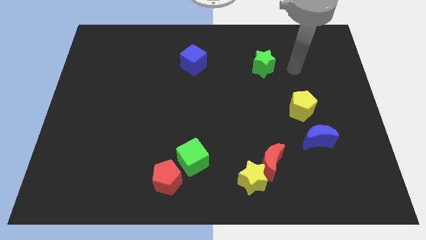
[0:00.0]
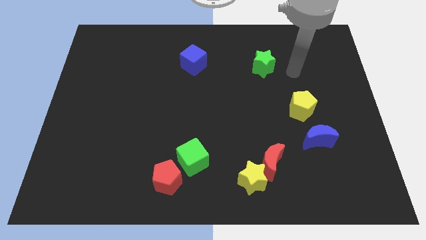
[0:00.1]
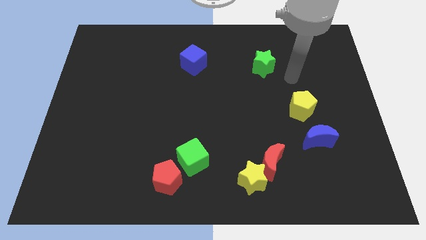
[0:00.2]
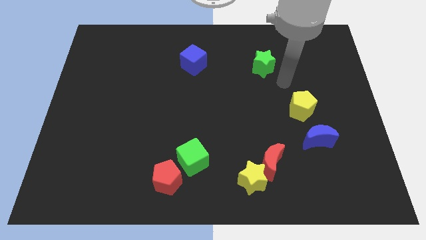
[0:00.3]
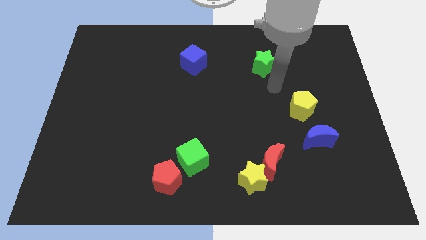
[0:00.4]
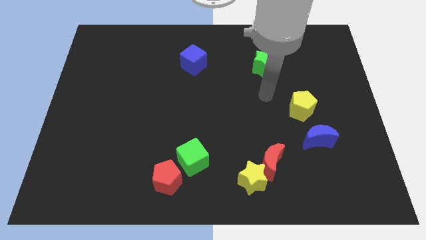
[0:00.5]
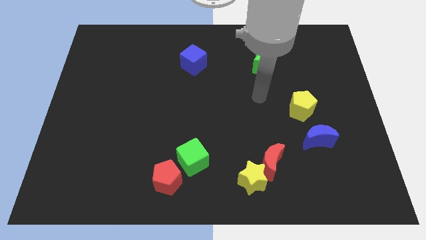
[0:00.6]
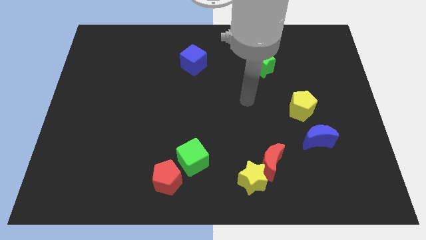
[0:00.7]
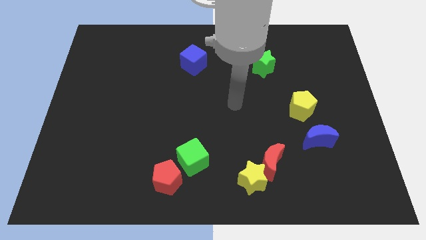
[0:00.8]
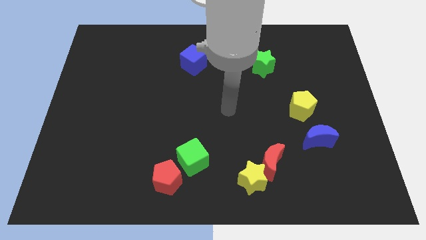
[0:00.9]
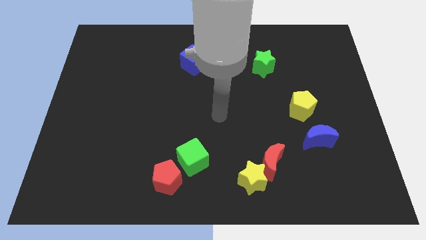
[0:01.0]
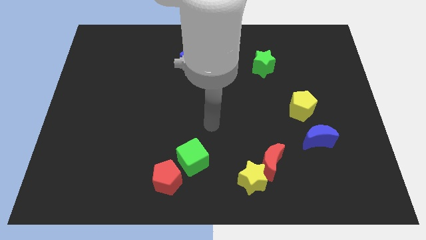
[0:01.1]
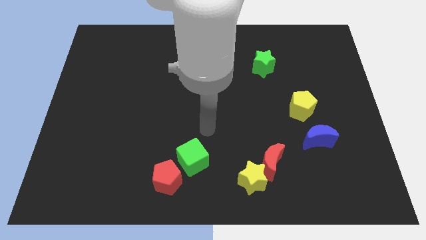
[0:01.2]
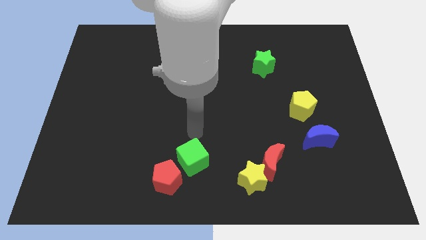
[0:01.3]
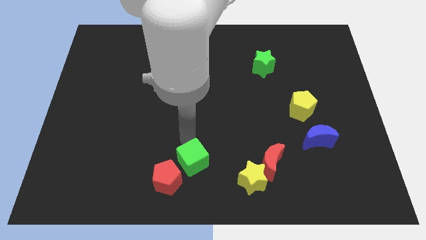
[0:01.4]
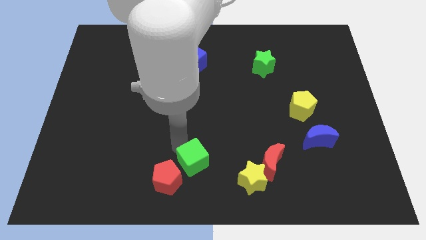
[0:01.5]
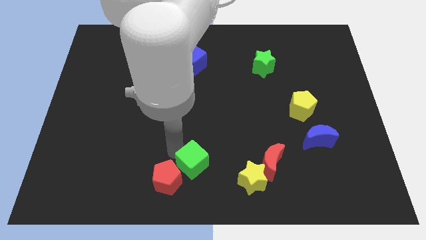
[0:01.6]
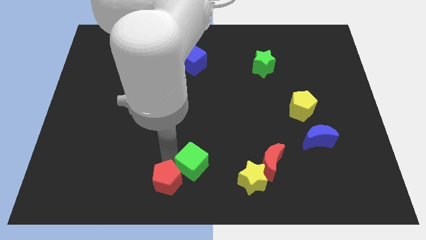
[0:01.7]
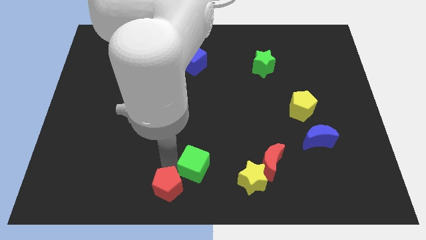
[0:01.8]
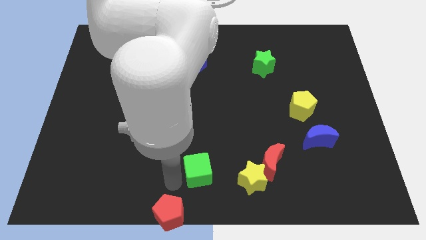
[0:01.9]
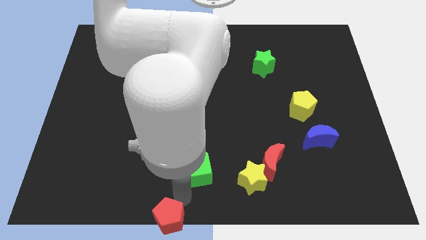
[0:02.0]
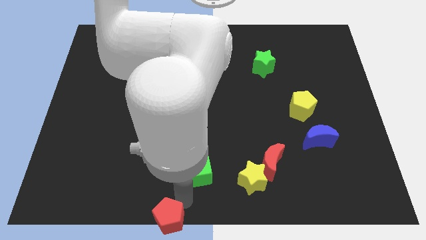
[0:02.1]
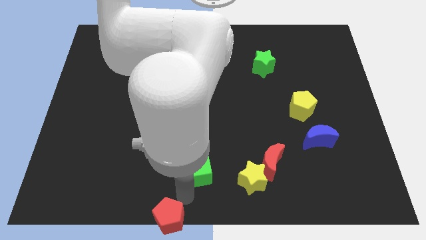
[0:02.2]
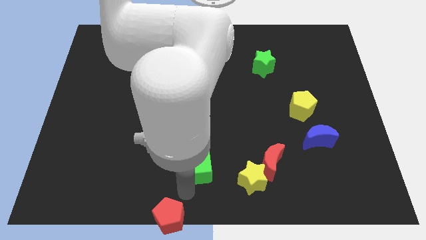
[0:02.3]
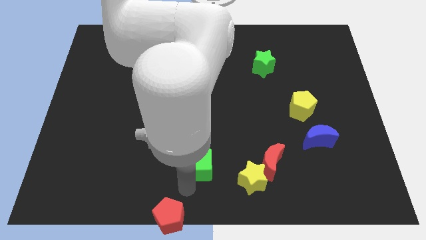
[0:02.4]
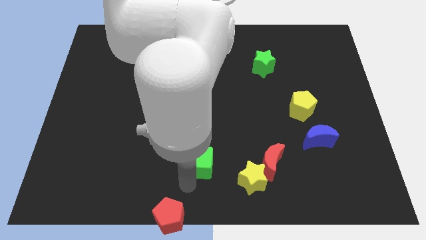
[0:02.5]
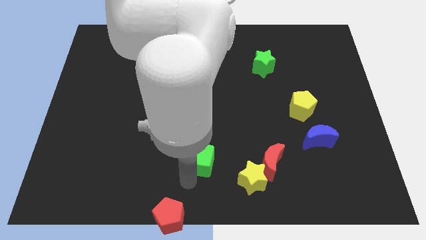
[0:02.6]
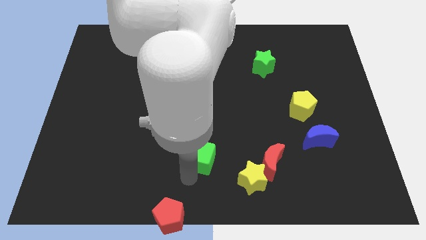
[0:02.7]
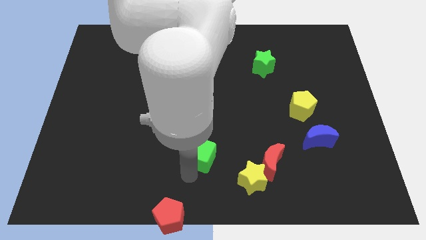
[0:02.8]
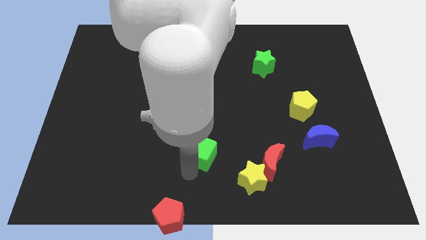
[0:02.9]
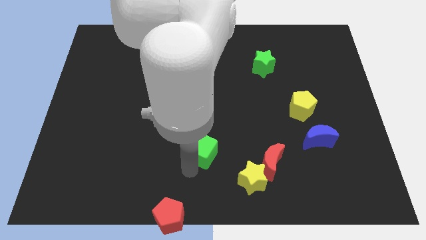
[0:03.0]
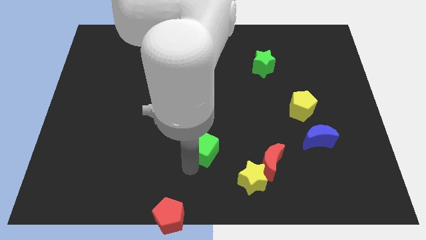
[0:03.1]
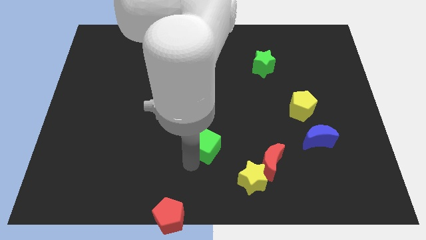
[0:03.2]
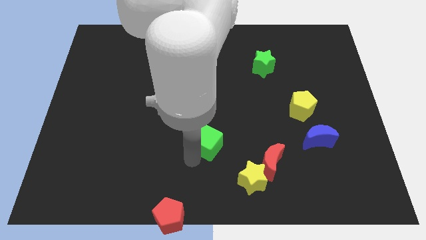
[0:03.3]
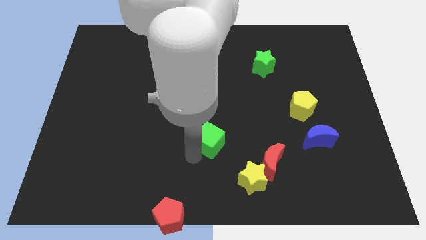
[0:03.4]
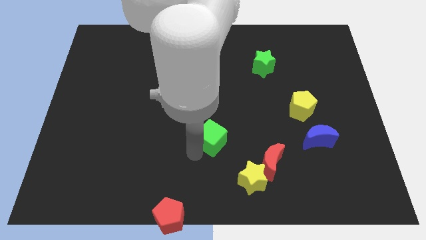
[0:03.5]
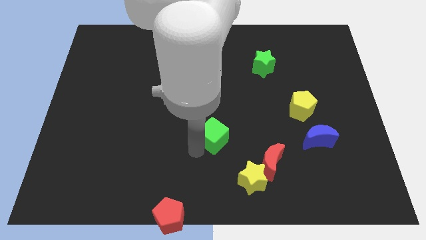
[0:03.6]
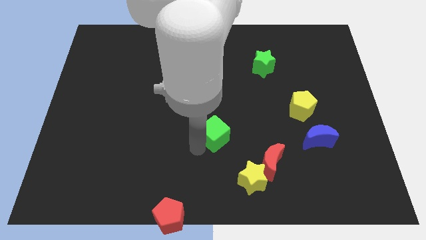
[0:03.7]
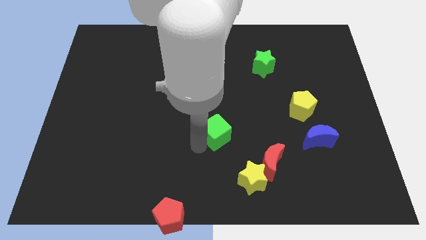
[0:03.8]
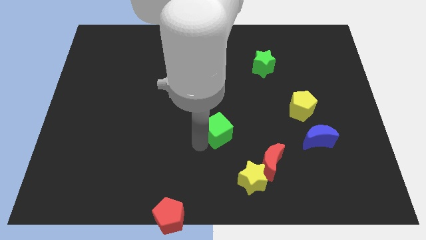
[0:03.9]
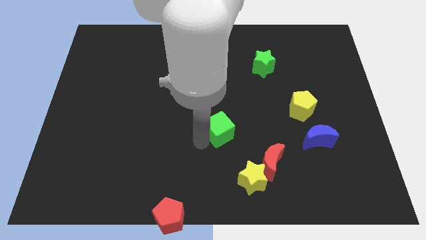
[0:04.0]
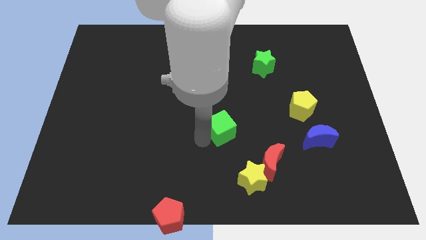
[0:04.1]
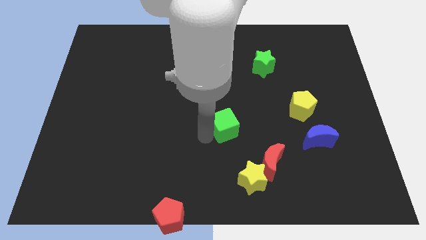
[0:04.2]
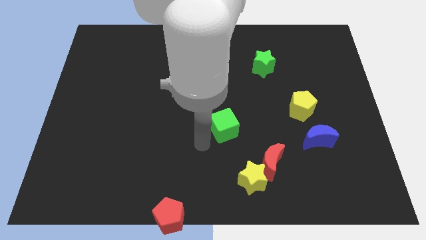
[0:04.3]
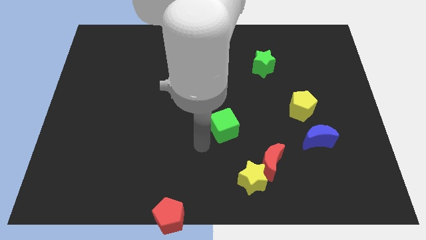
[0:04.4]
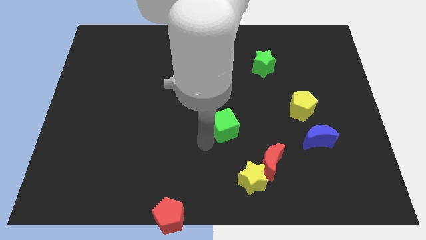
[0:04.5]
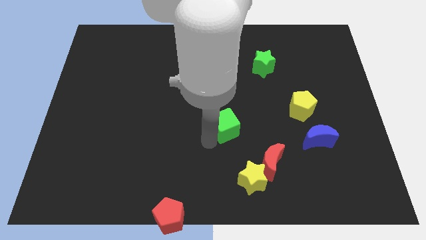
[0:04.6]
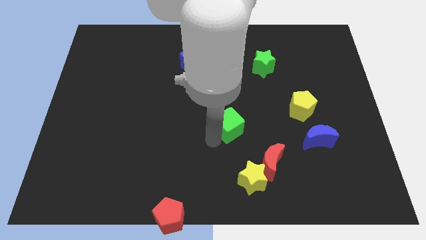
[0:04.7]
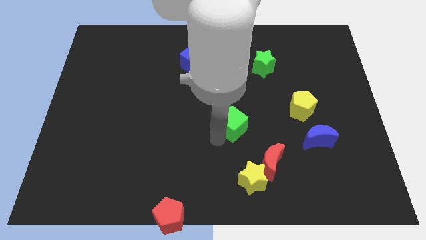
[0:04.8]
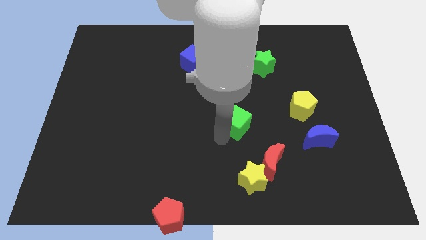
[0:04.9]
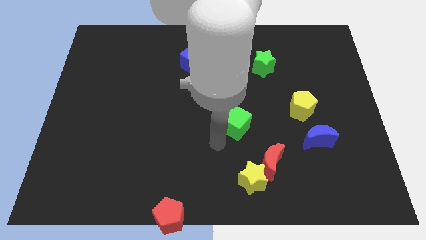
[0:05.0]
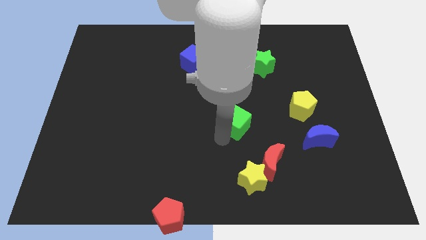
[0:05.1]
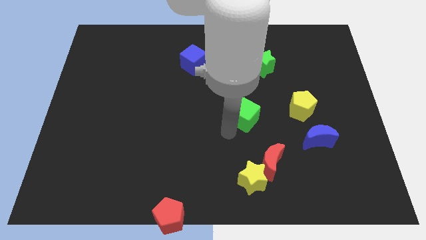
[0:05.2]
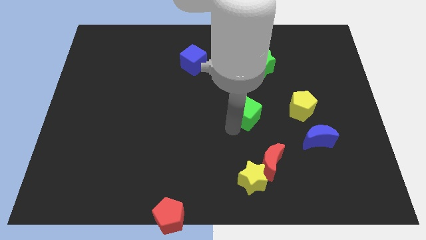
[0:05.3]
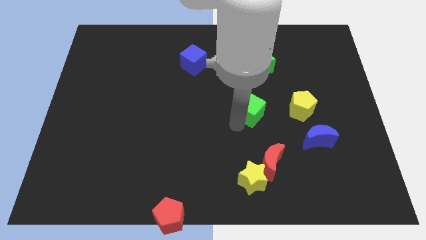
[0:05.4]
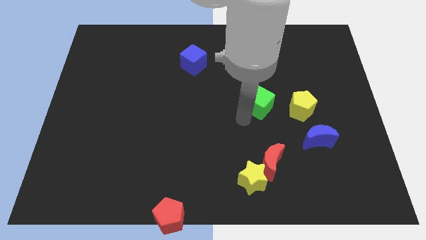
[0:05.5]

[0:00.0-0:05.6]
push the green cube up and to the right diagonally

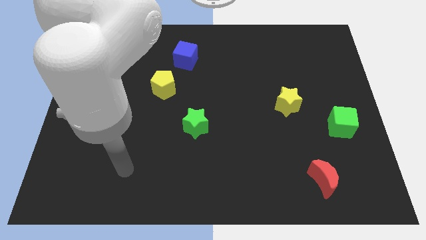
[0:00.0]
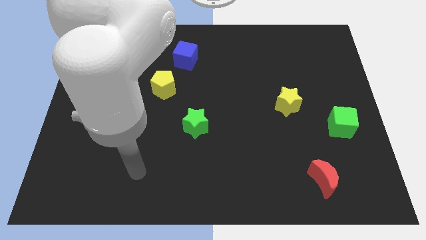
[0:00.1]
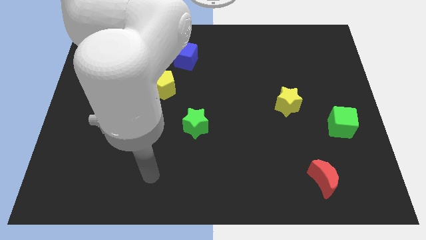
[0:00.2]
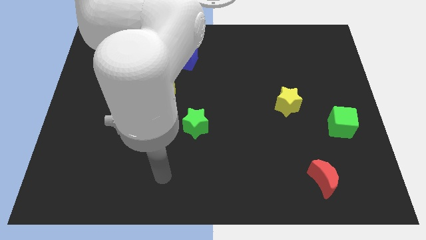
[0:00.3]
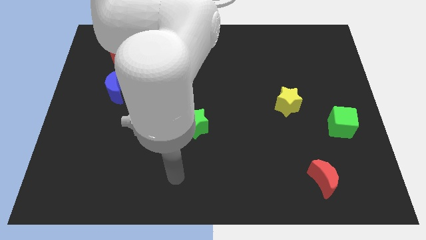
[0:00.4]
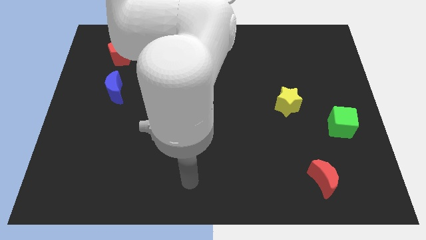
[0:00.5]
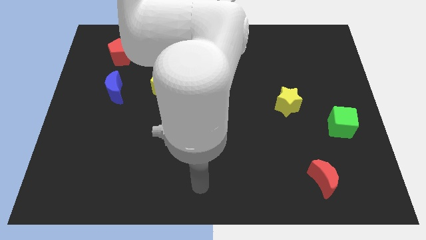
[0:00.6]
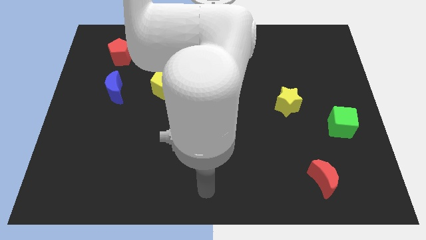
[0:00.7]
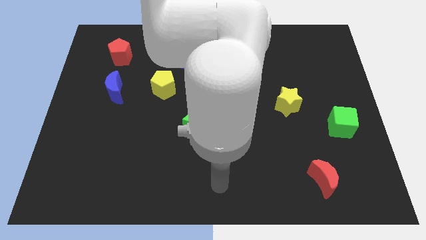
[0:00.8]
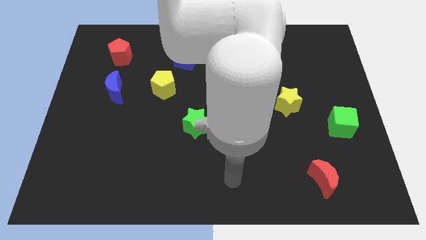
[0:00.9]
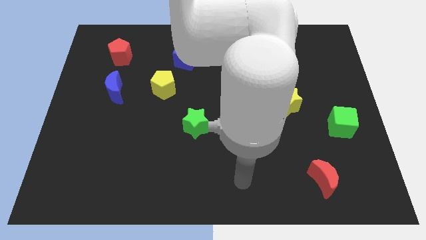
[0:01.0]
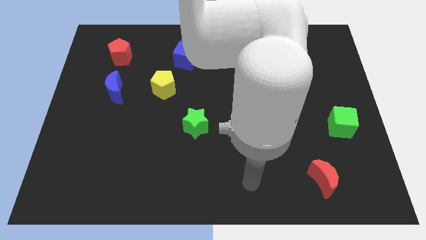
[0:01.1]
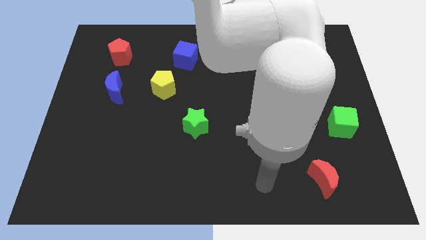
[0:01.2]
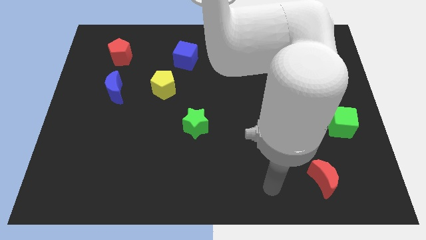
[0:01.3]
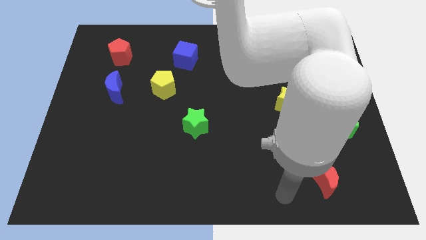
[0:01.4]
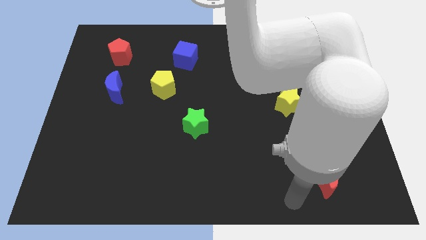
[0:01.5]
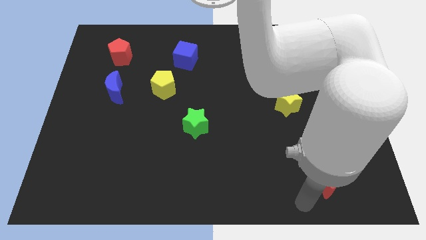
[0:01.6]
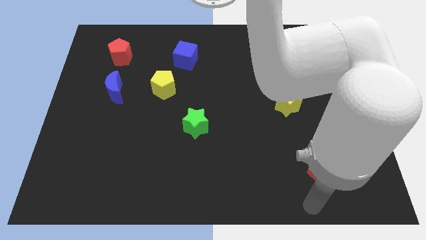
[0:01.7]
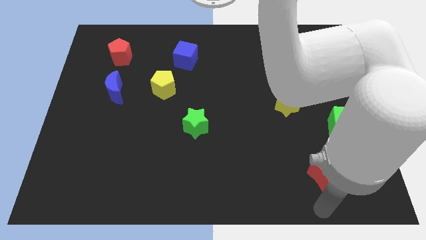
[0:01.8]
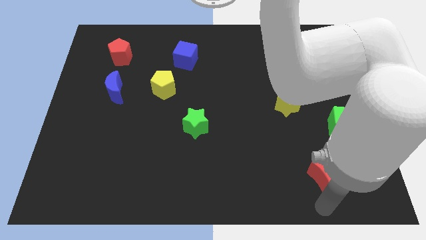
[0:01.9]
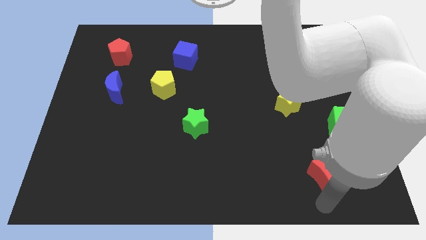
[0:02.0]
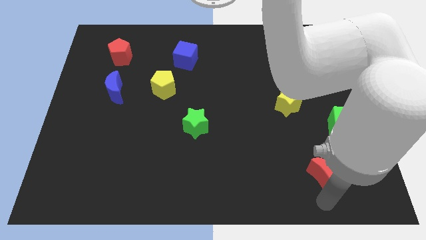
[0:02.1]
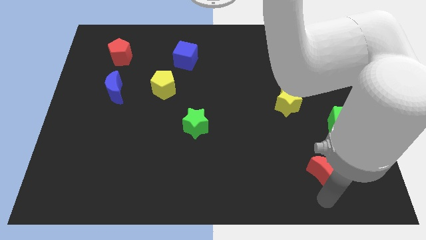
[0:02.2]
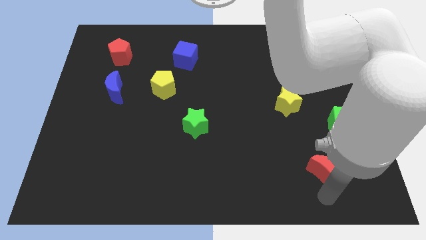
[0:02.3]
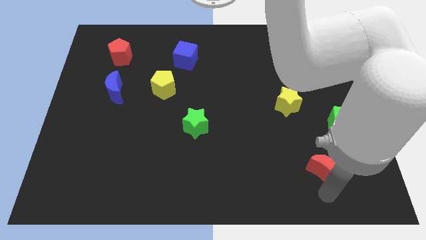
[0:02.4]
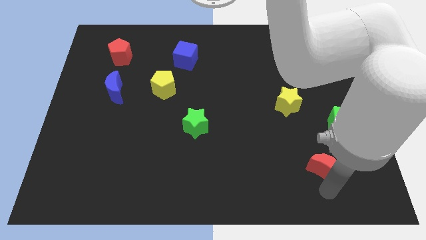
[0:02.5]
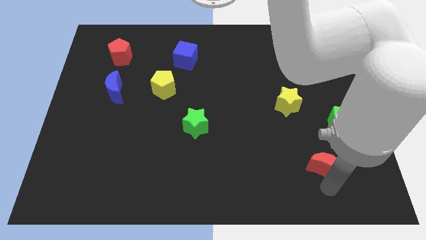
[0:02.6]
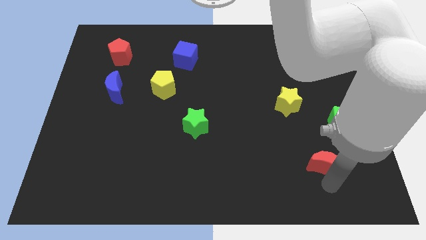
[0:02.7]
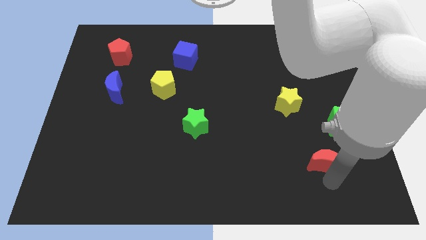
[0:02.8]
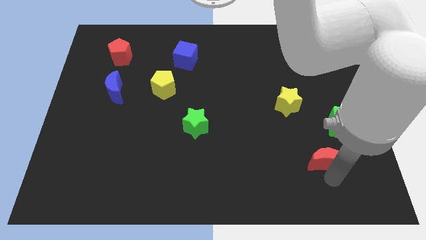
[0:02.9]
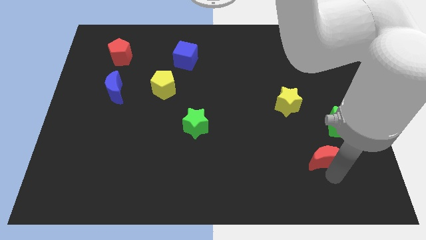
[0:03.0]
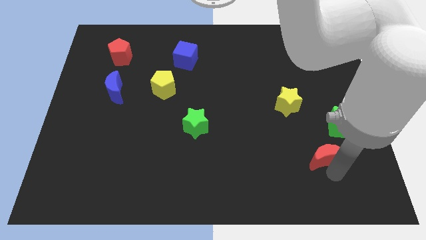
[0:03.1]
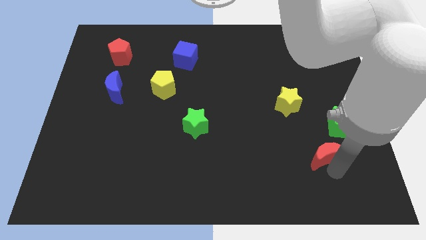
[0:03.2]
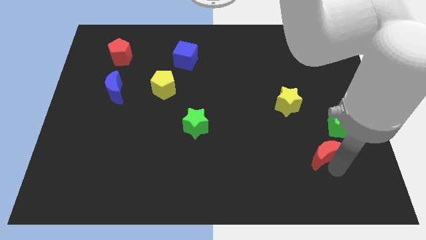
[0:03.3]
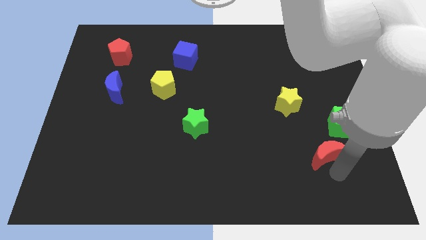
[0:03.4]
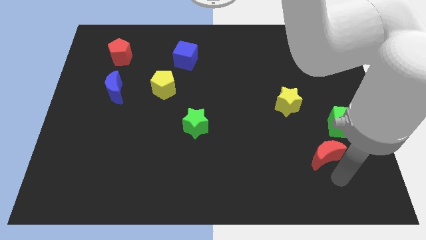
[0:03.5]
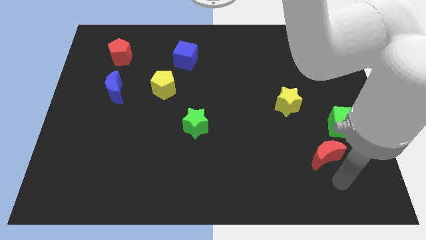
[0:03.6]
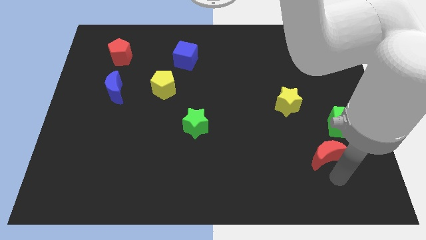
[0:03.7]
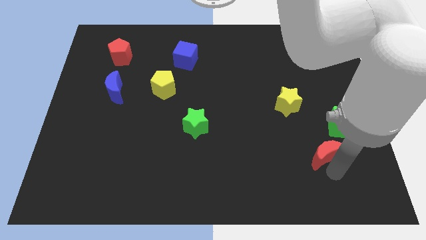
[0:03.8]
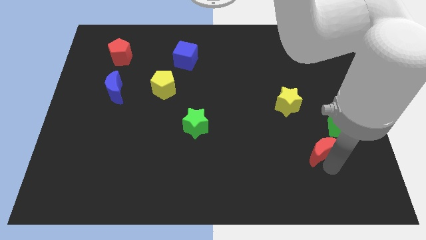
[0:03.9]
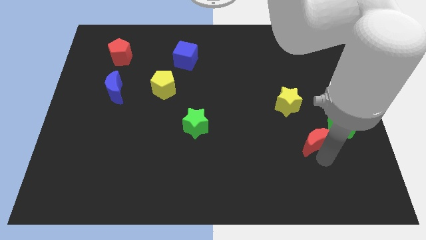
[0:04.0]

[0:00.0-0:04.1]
slide the red moon somewhat upwards
